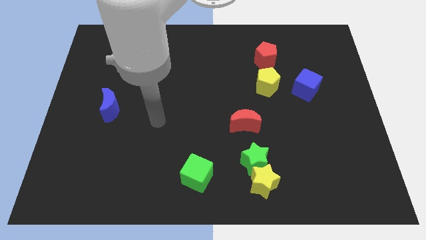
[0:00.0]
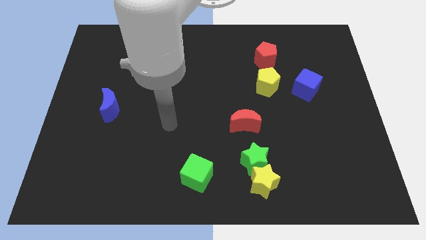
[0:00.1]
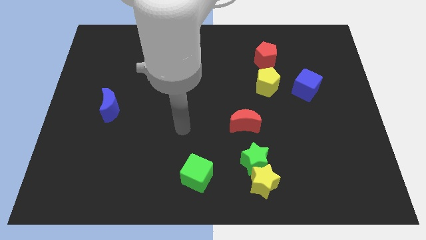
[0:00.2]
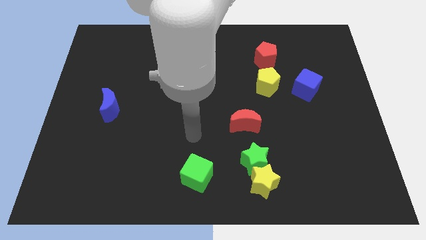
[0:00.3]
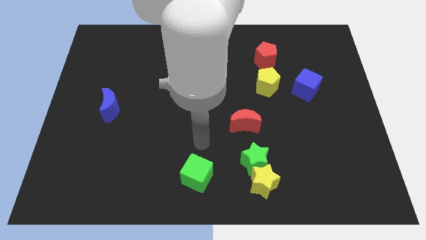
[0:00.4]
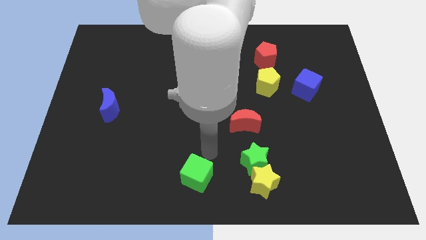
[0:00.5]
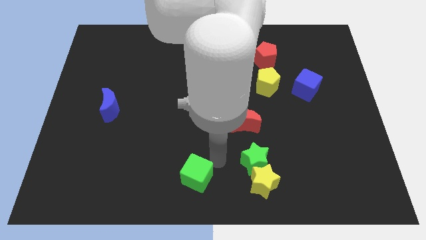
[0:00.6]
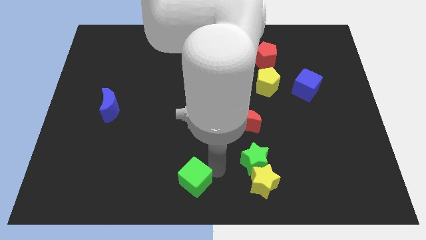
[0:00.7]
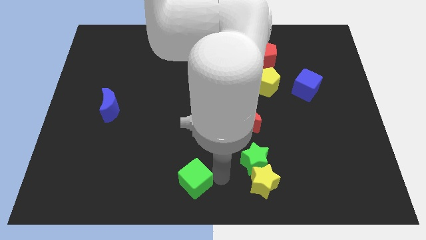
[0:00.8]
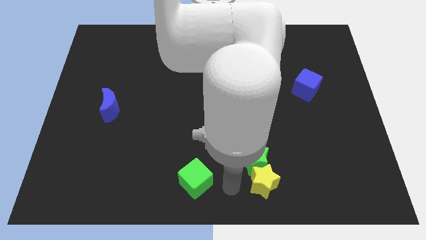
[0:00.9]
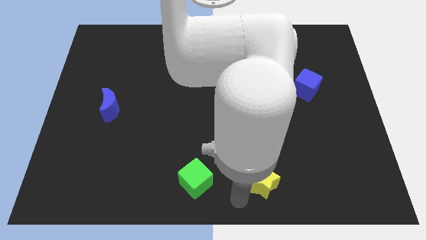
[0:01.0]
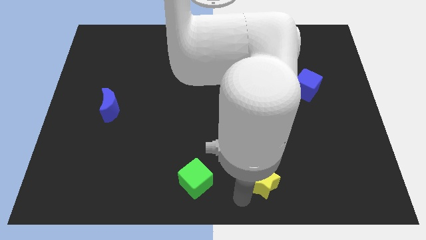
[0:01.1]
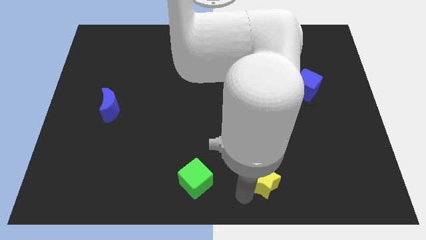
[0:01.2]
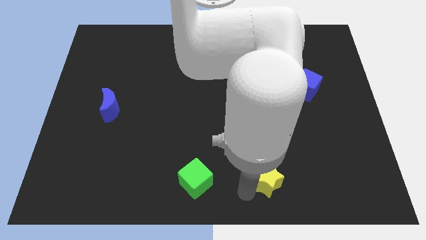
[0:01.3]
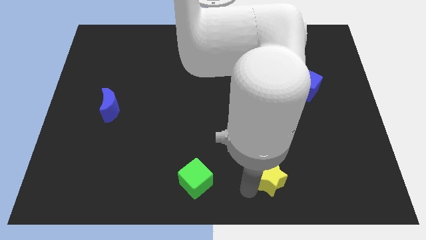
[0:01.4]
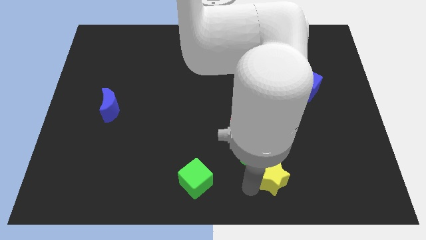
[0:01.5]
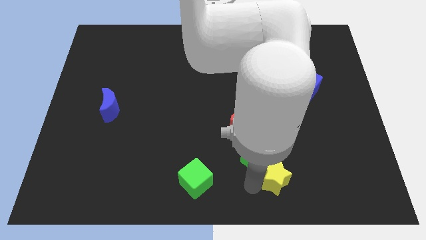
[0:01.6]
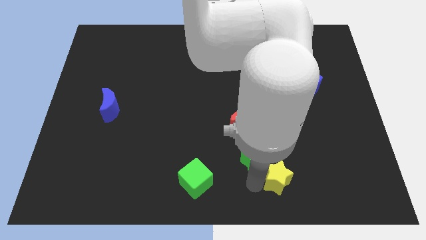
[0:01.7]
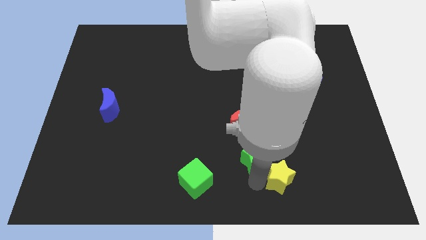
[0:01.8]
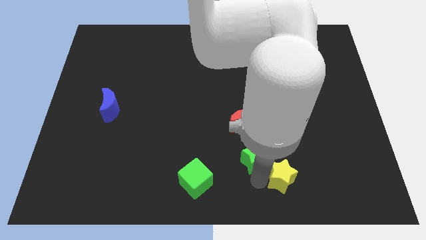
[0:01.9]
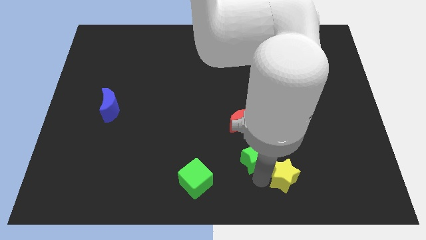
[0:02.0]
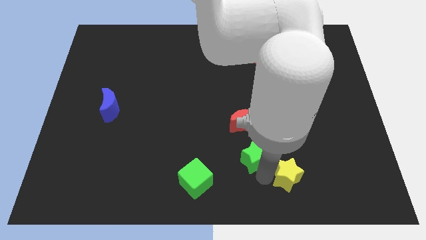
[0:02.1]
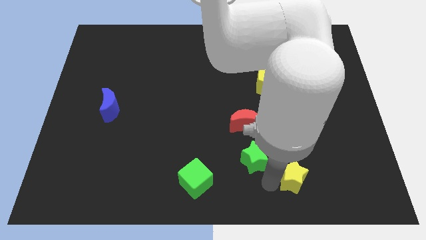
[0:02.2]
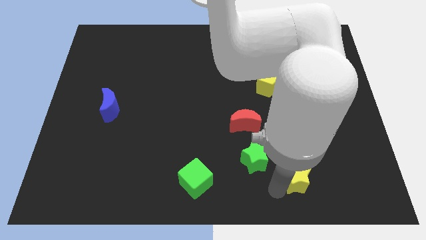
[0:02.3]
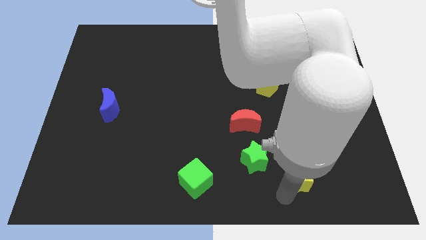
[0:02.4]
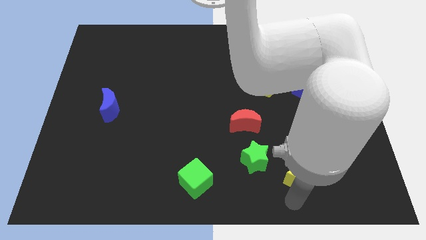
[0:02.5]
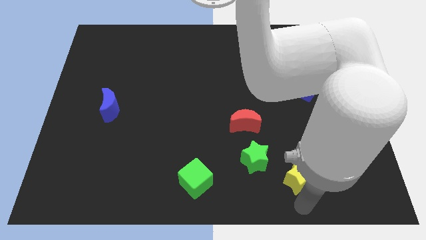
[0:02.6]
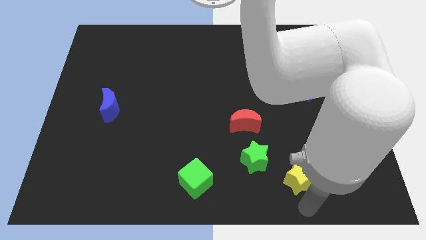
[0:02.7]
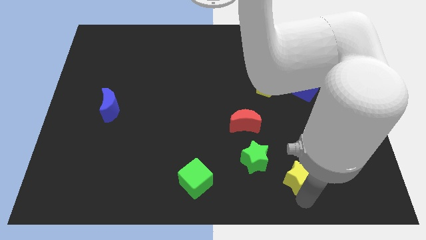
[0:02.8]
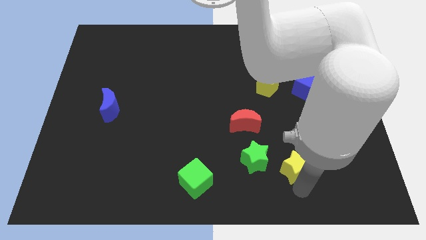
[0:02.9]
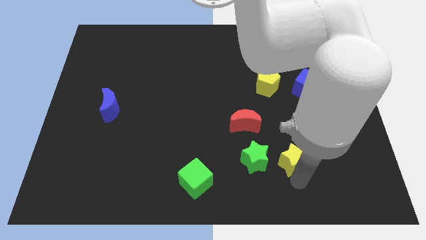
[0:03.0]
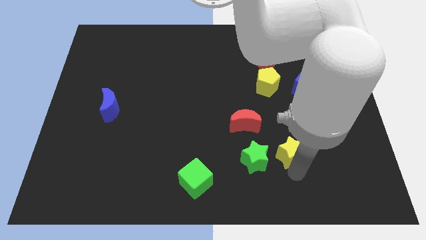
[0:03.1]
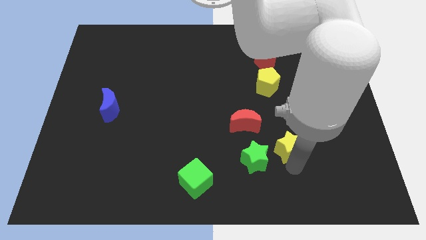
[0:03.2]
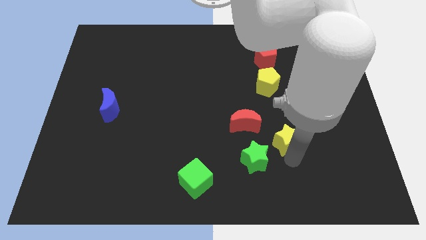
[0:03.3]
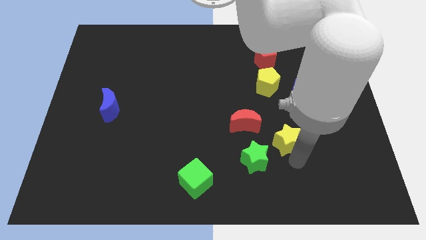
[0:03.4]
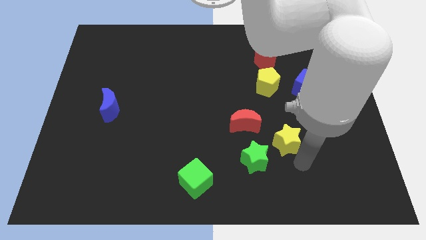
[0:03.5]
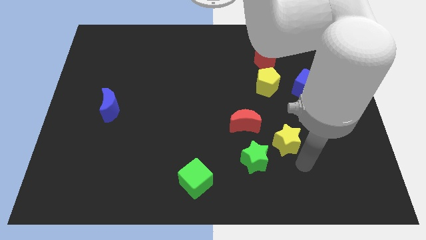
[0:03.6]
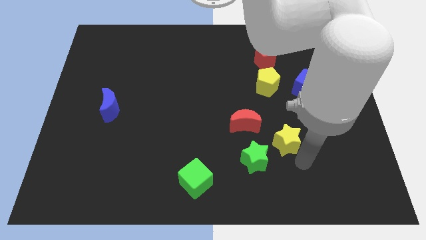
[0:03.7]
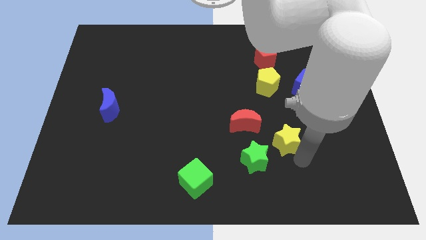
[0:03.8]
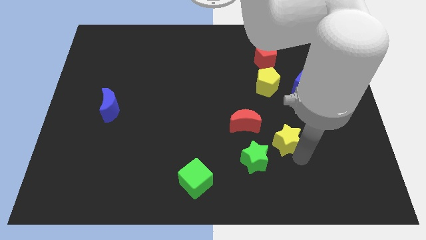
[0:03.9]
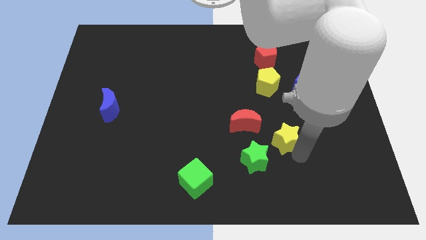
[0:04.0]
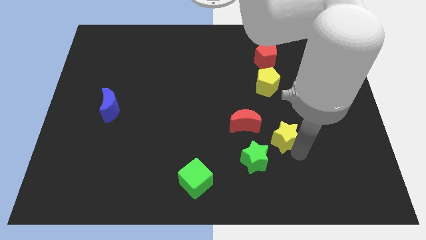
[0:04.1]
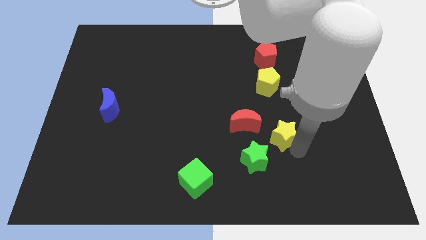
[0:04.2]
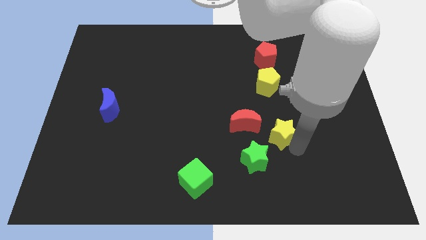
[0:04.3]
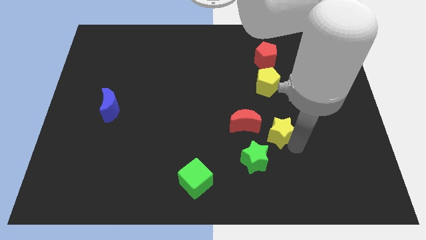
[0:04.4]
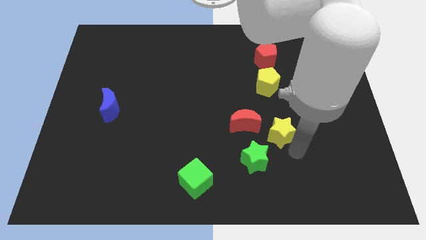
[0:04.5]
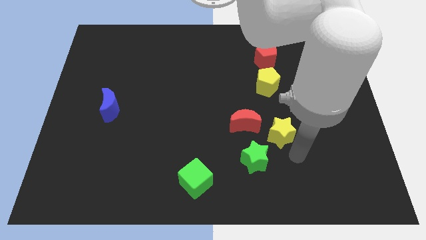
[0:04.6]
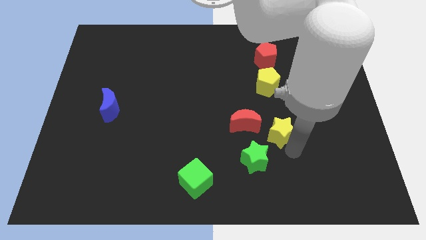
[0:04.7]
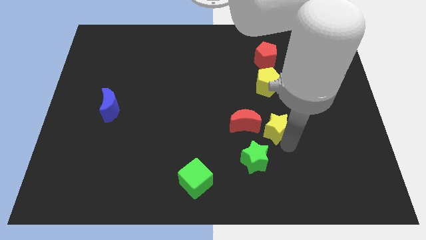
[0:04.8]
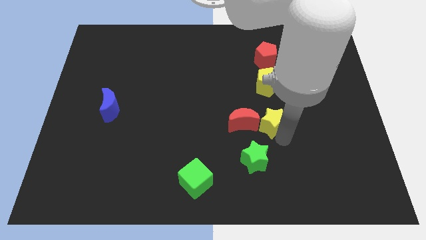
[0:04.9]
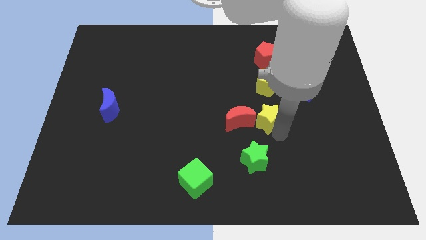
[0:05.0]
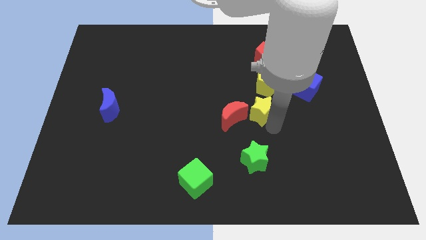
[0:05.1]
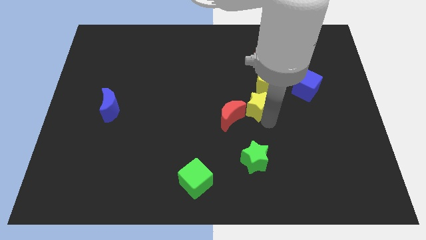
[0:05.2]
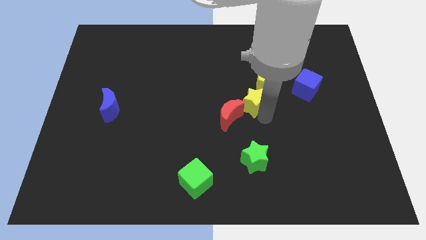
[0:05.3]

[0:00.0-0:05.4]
push the yellow star upwards

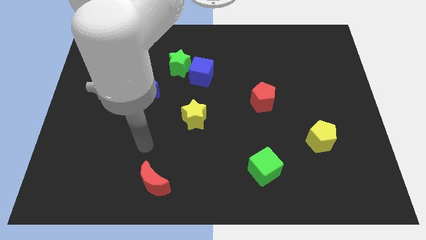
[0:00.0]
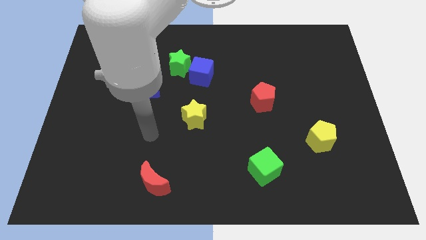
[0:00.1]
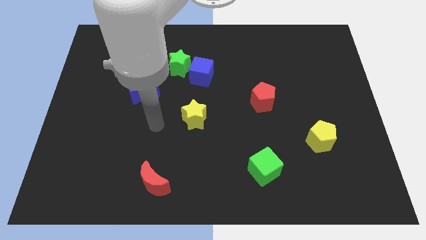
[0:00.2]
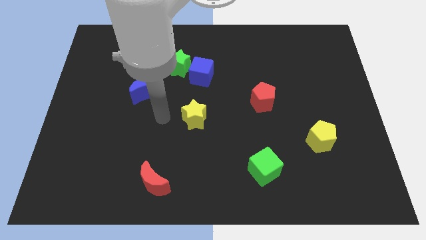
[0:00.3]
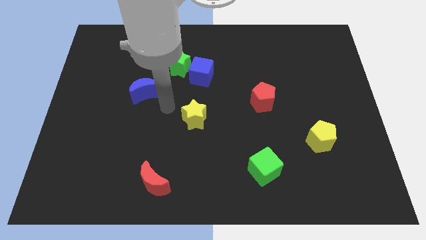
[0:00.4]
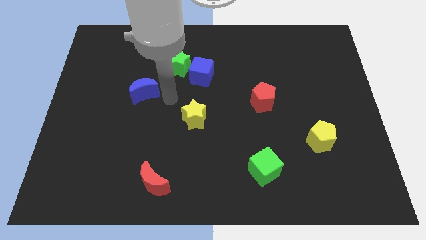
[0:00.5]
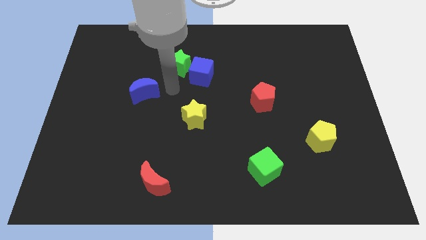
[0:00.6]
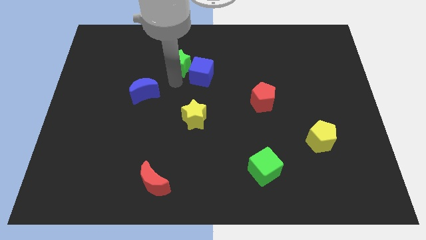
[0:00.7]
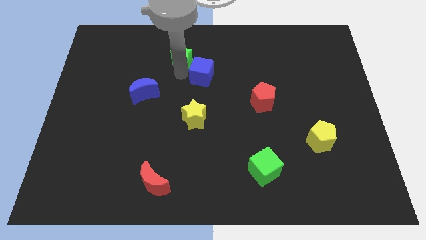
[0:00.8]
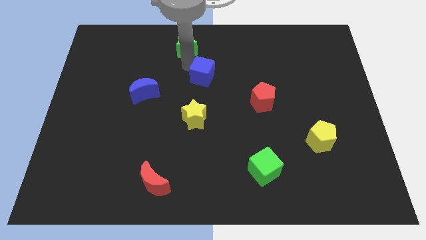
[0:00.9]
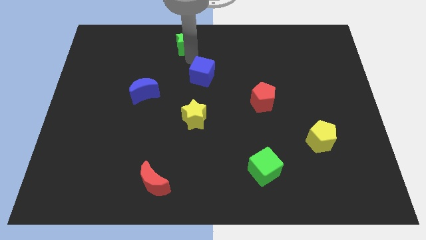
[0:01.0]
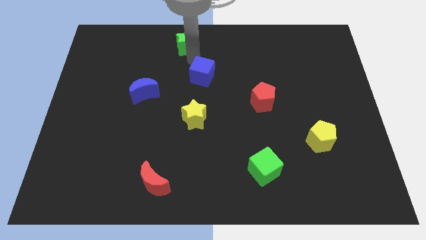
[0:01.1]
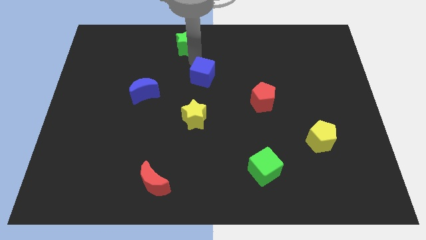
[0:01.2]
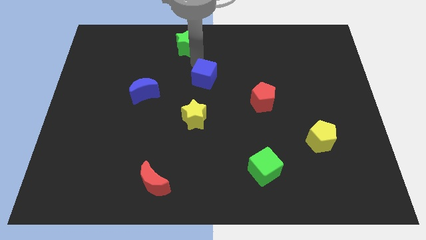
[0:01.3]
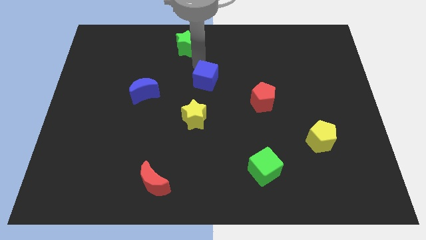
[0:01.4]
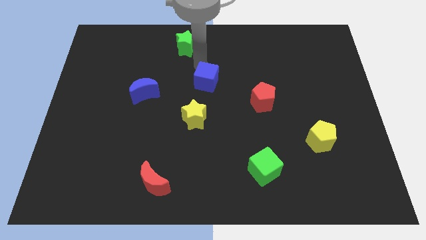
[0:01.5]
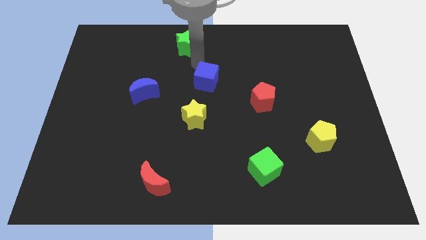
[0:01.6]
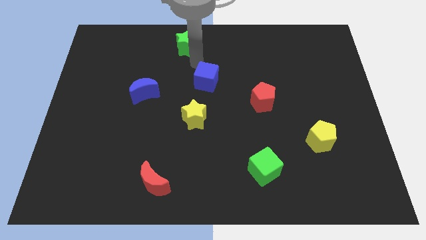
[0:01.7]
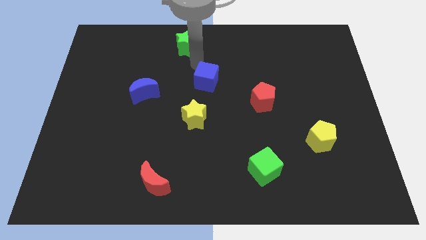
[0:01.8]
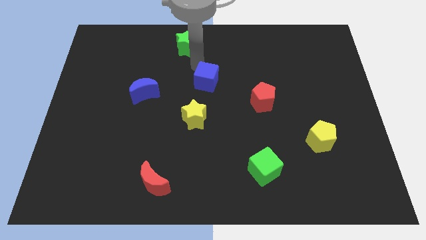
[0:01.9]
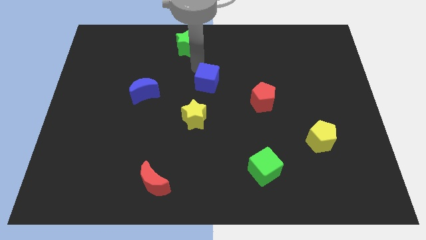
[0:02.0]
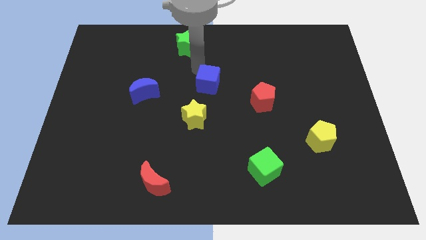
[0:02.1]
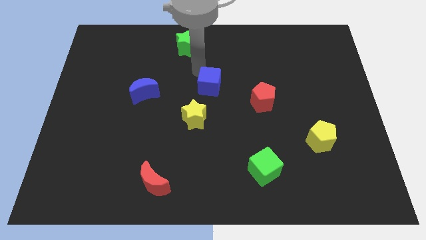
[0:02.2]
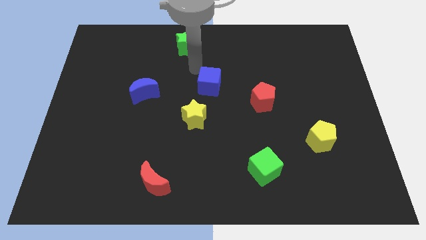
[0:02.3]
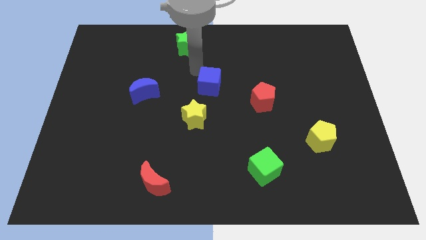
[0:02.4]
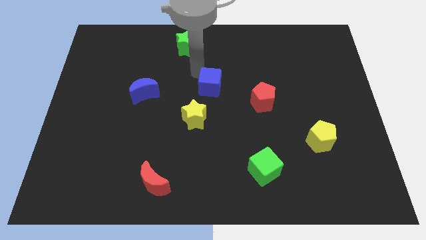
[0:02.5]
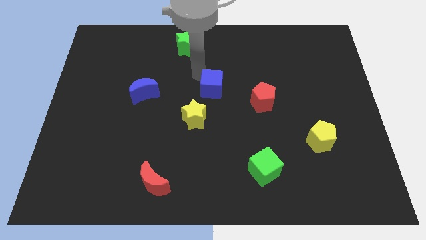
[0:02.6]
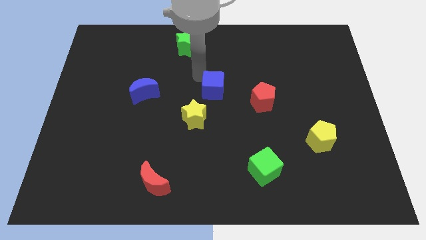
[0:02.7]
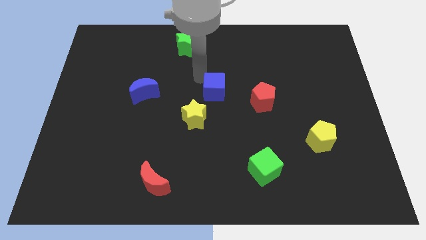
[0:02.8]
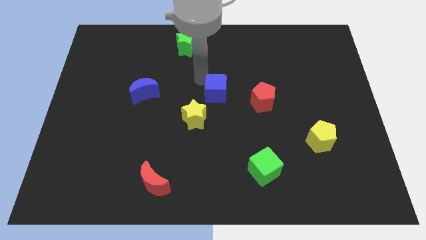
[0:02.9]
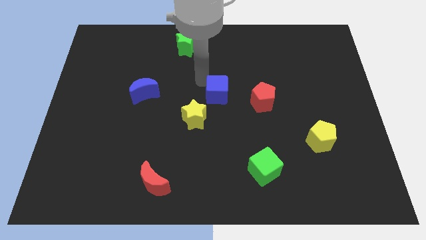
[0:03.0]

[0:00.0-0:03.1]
move the blue cube diagonally downwards and to the right a little
